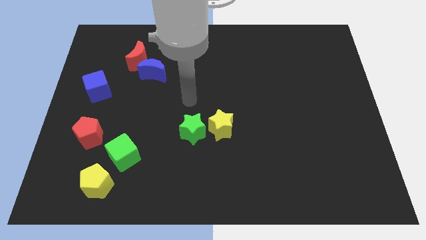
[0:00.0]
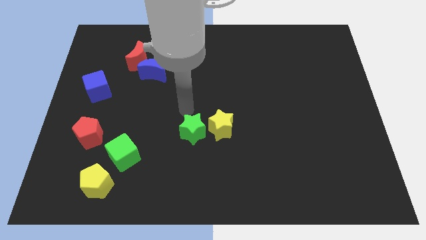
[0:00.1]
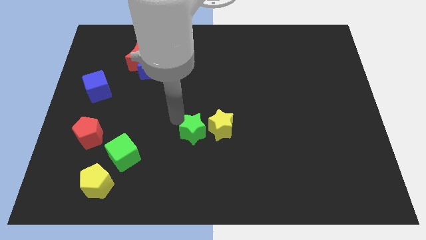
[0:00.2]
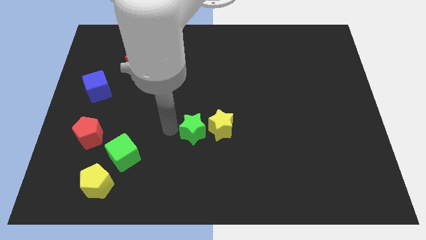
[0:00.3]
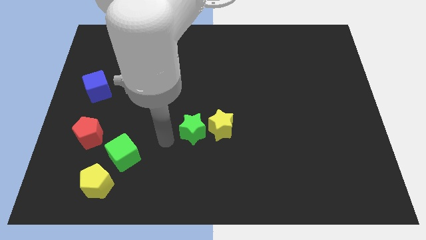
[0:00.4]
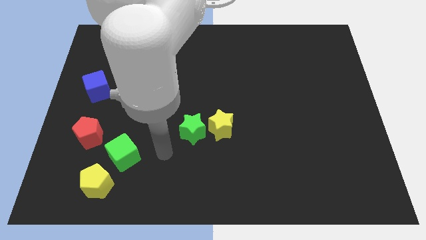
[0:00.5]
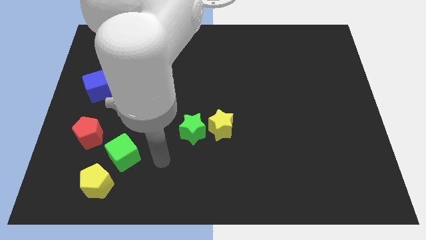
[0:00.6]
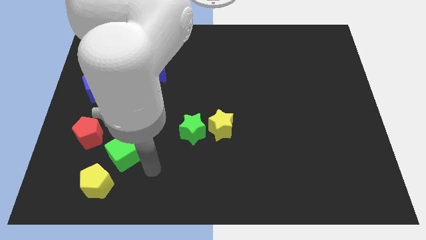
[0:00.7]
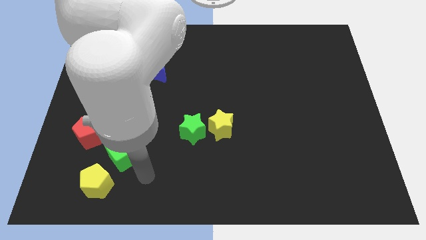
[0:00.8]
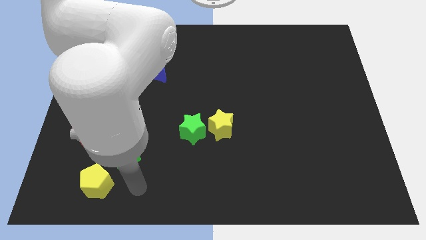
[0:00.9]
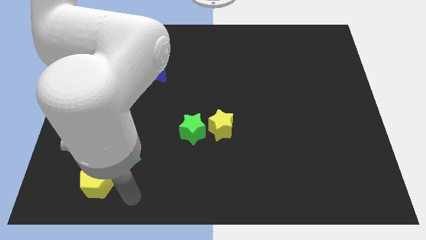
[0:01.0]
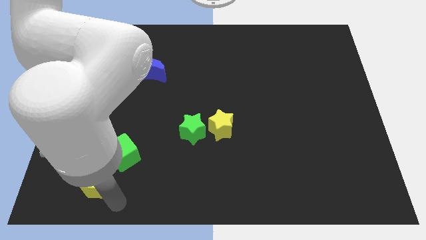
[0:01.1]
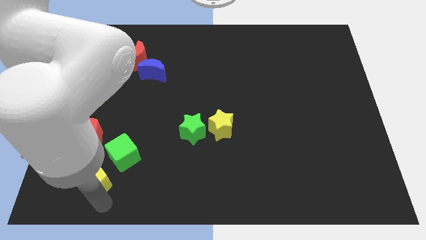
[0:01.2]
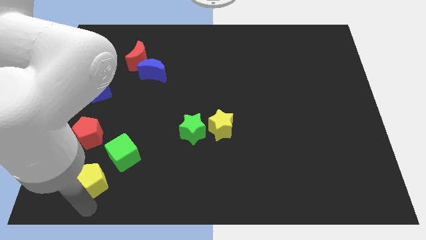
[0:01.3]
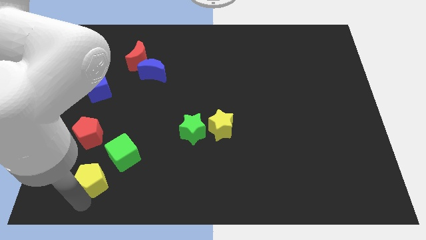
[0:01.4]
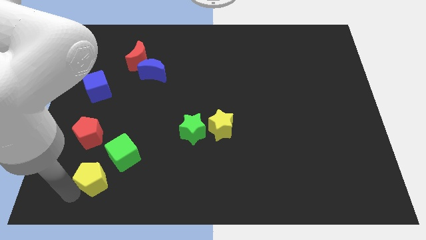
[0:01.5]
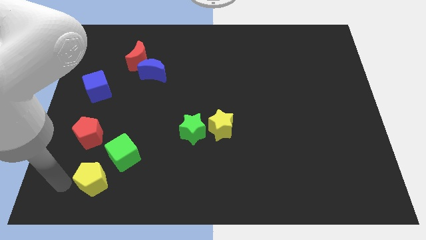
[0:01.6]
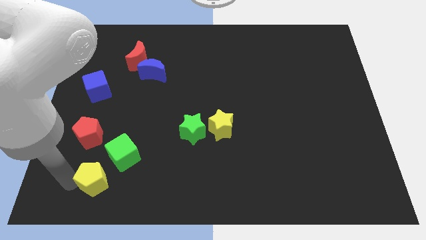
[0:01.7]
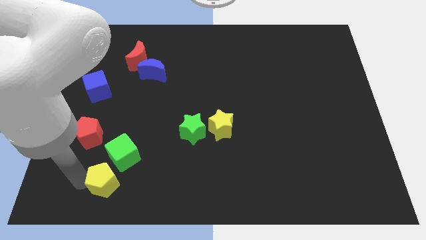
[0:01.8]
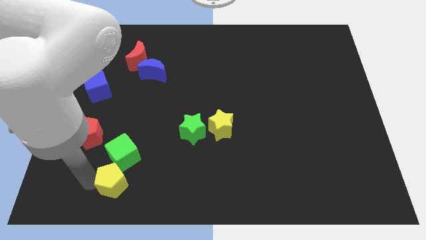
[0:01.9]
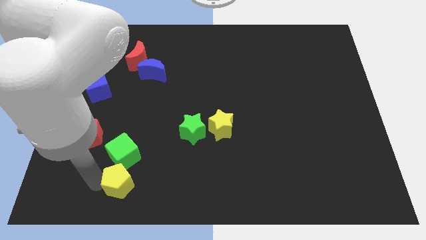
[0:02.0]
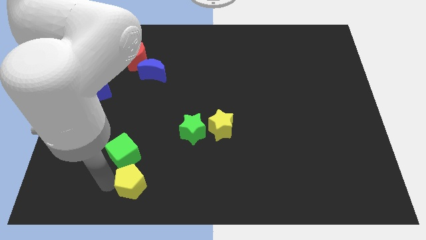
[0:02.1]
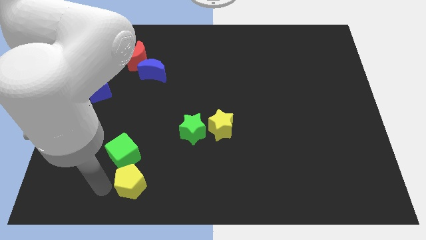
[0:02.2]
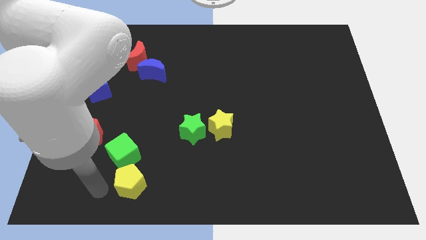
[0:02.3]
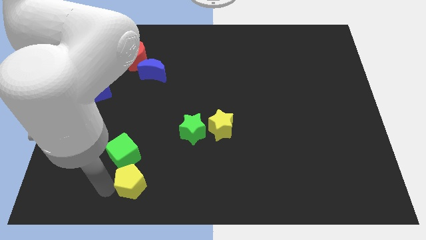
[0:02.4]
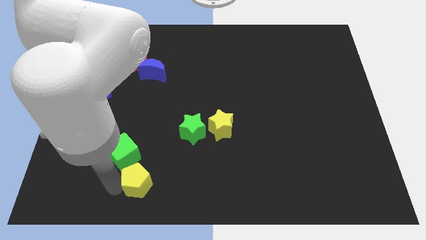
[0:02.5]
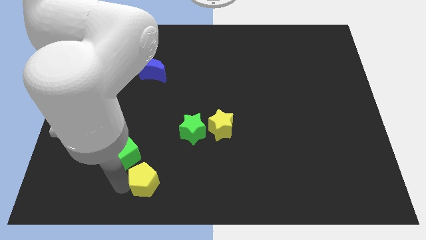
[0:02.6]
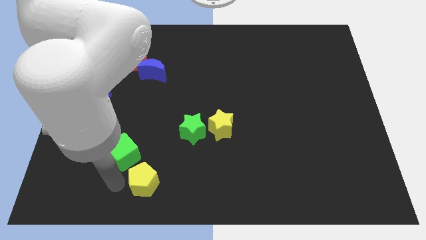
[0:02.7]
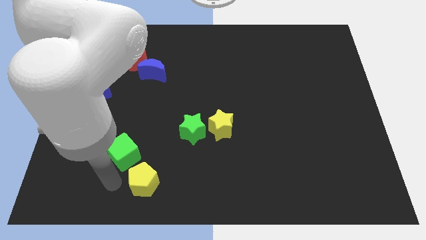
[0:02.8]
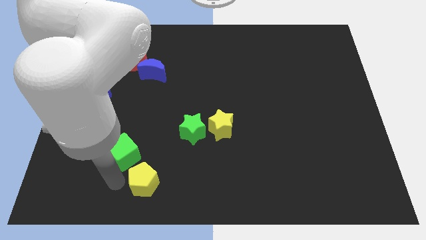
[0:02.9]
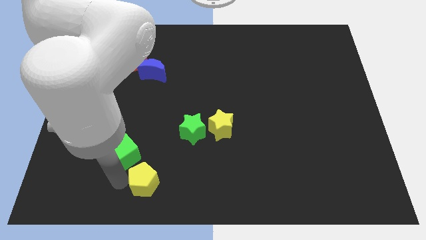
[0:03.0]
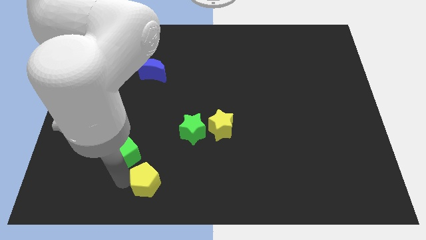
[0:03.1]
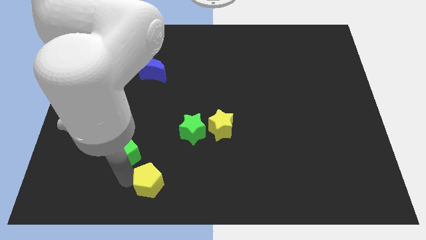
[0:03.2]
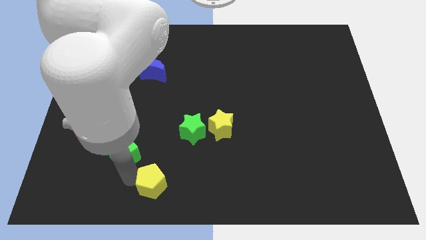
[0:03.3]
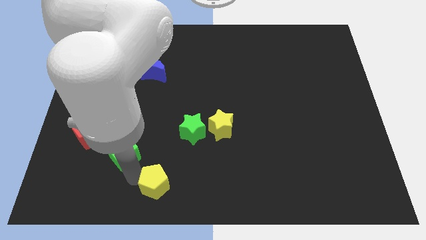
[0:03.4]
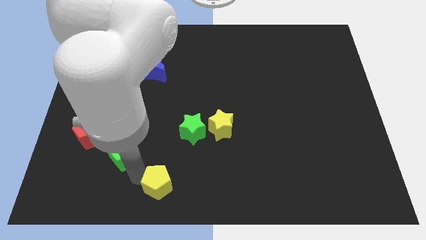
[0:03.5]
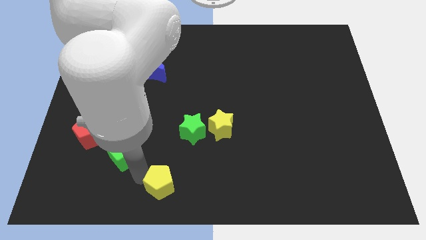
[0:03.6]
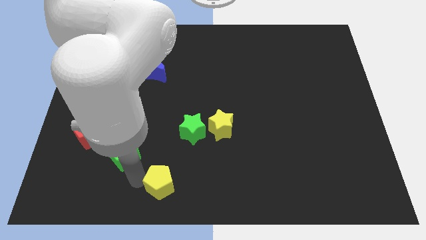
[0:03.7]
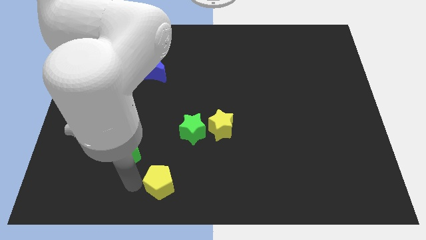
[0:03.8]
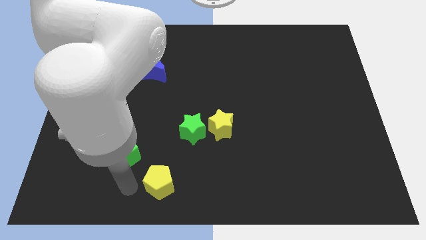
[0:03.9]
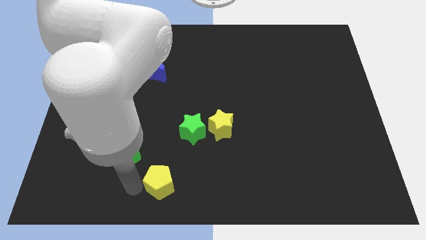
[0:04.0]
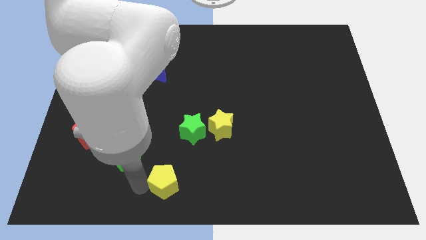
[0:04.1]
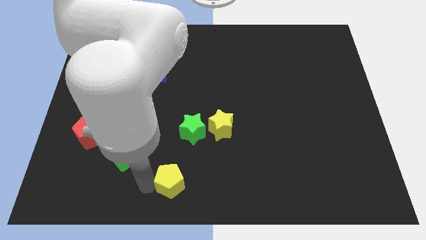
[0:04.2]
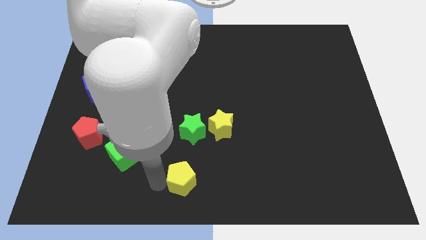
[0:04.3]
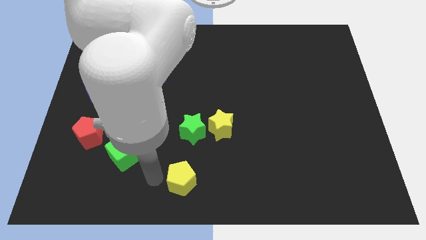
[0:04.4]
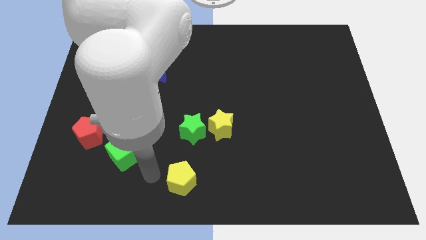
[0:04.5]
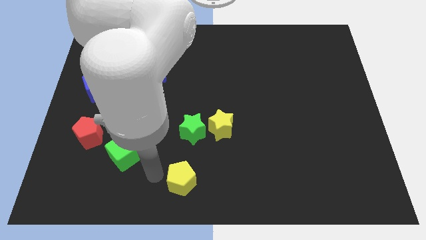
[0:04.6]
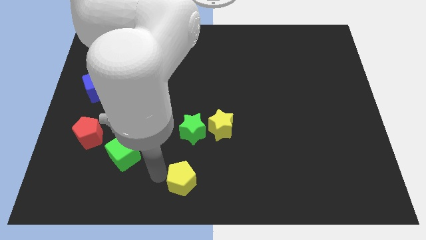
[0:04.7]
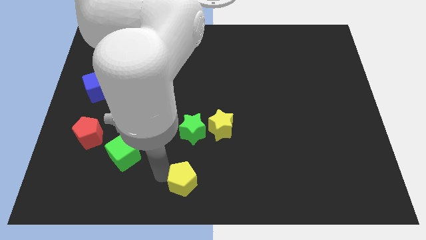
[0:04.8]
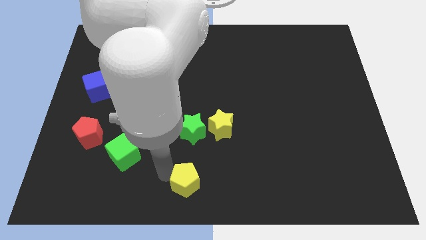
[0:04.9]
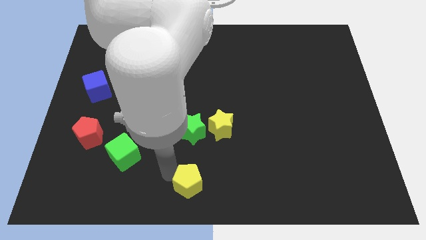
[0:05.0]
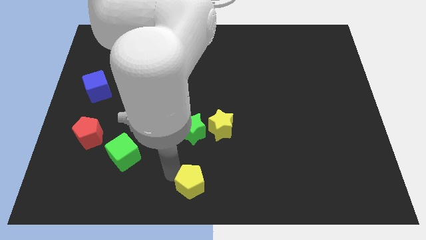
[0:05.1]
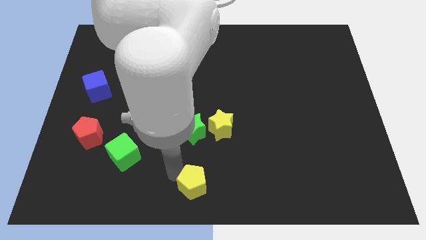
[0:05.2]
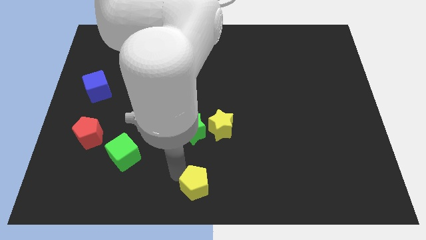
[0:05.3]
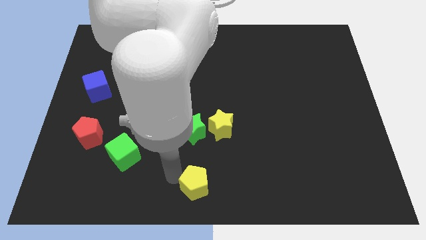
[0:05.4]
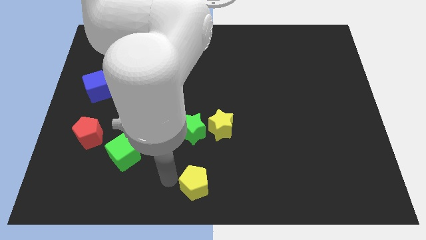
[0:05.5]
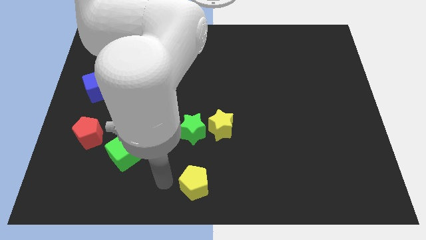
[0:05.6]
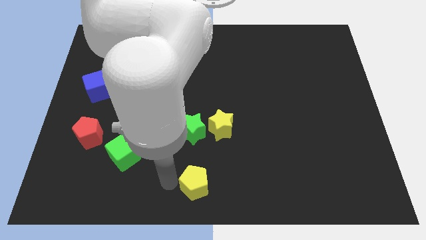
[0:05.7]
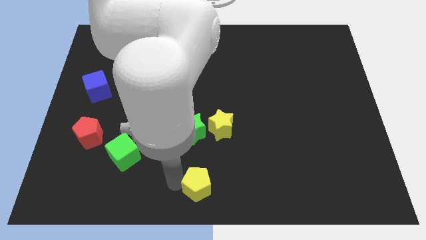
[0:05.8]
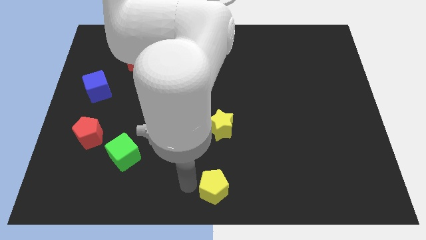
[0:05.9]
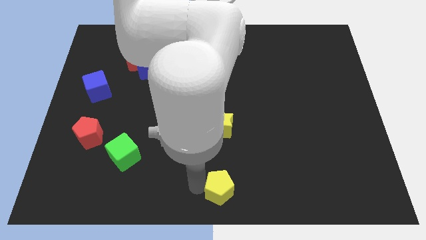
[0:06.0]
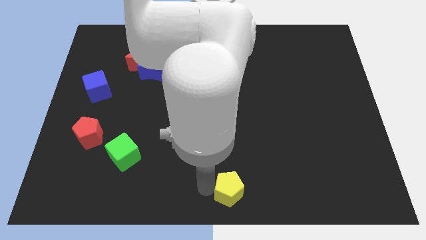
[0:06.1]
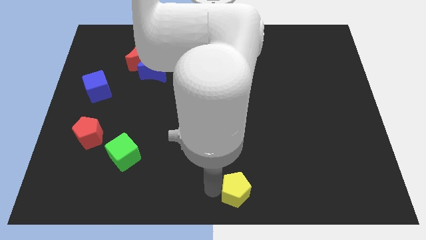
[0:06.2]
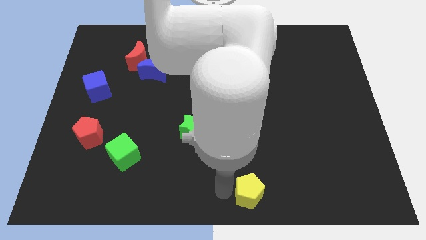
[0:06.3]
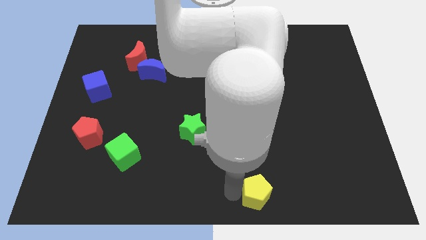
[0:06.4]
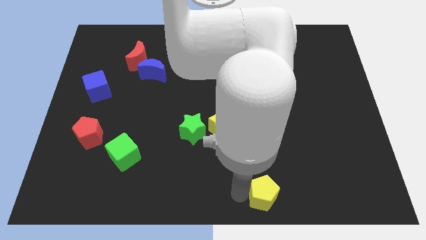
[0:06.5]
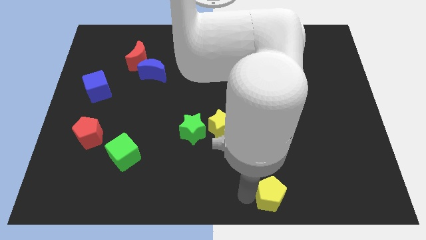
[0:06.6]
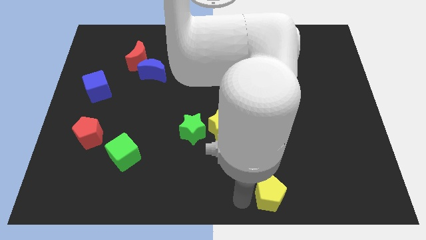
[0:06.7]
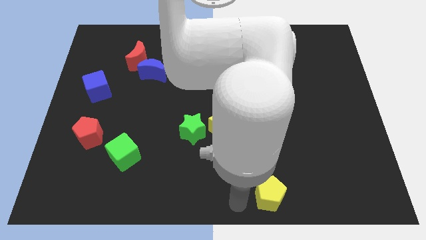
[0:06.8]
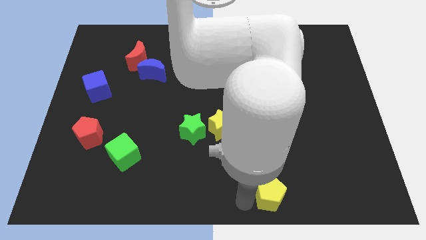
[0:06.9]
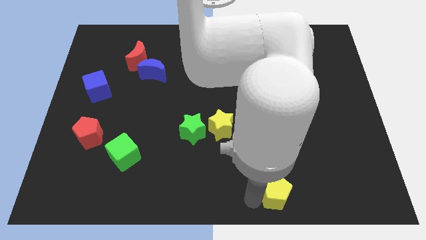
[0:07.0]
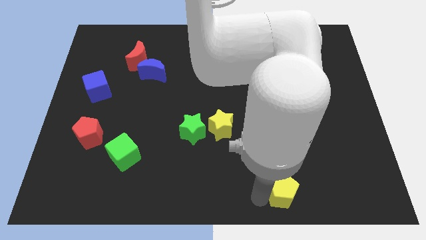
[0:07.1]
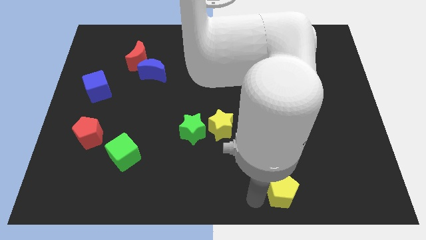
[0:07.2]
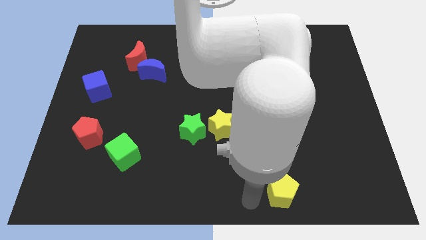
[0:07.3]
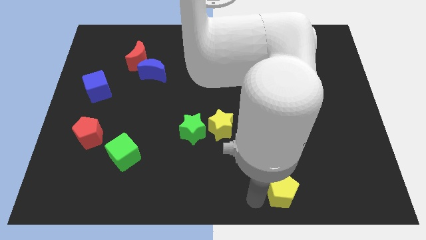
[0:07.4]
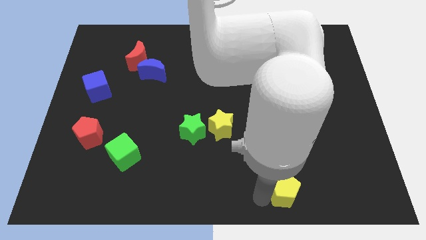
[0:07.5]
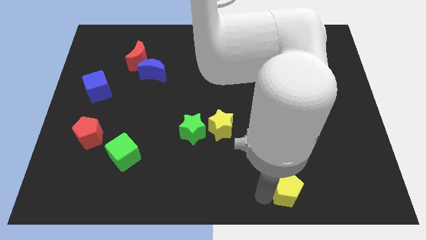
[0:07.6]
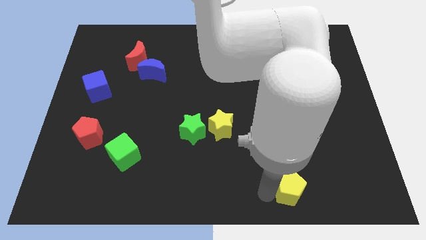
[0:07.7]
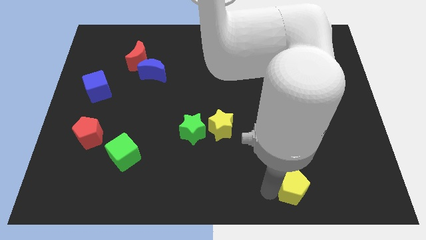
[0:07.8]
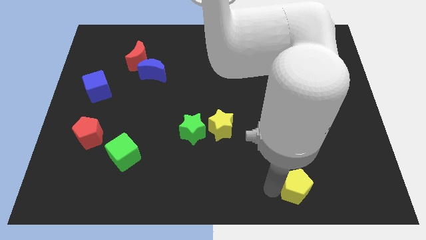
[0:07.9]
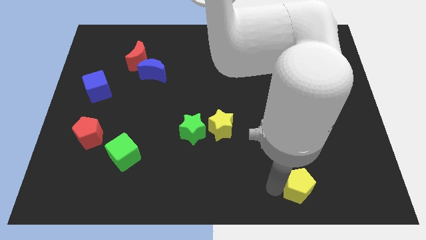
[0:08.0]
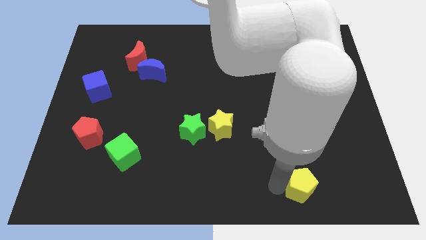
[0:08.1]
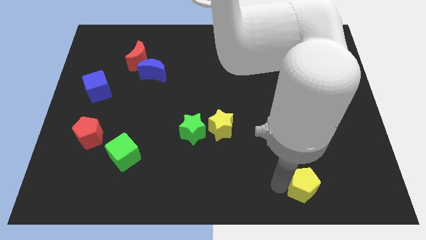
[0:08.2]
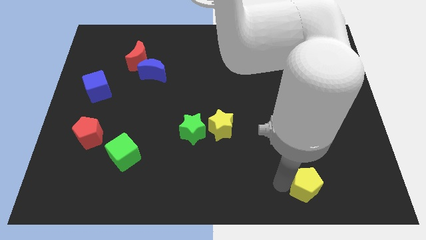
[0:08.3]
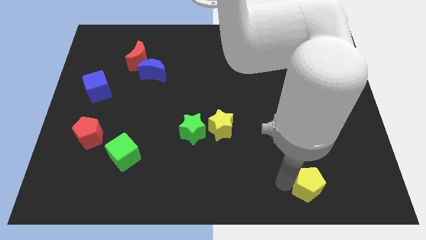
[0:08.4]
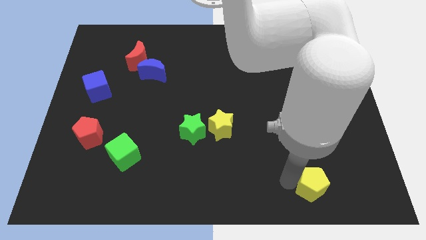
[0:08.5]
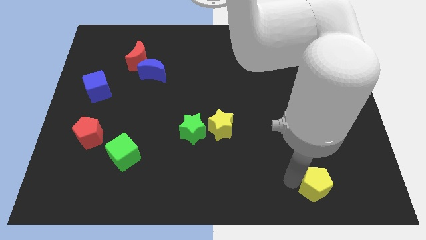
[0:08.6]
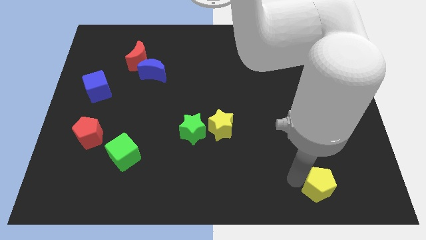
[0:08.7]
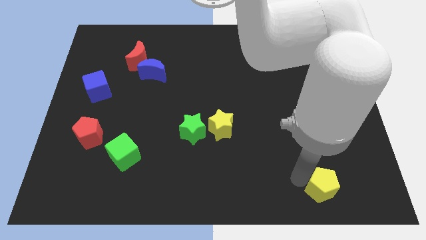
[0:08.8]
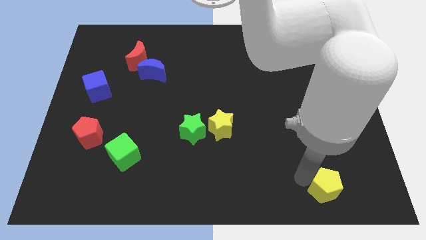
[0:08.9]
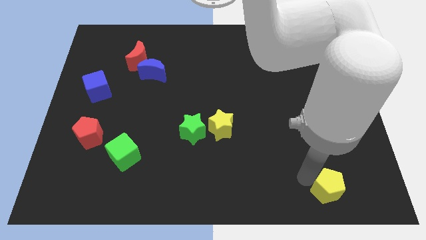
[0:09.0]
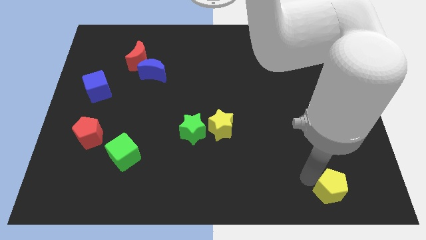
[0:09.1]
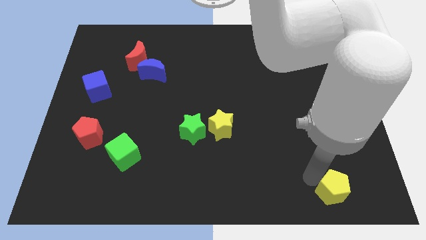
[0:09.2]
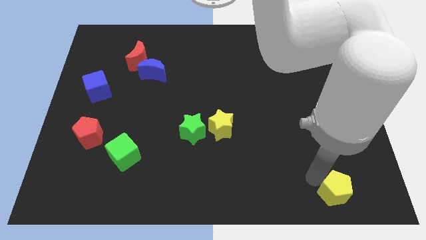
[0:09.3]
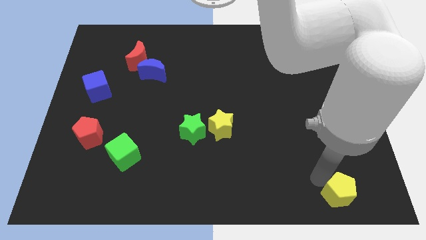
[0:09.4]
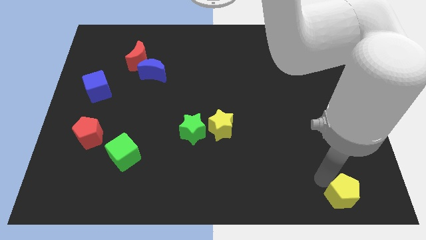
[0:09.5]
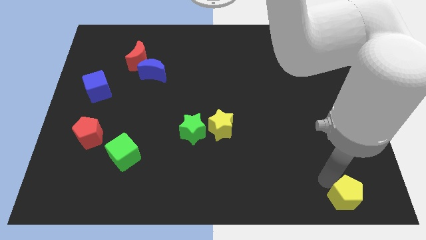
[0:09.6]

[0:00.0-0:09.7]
slide the yellow pentagon to the bottom right corner
